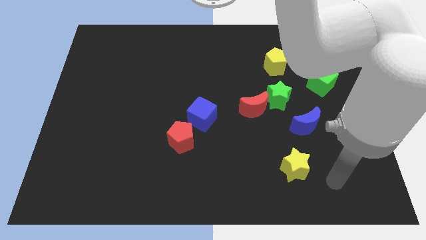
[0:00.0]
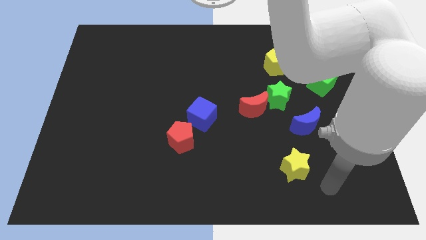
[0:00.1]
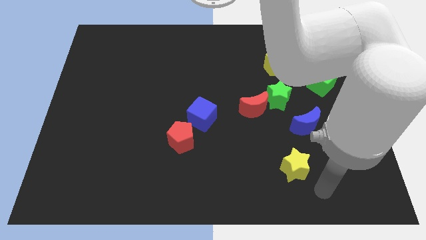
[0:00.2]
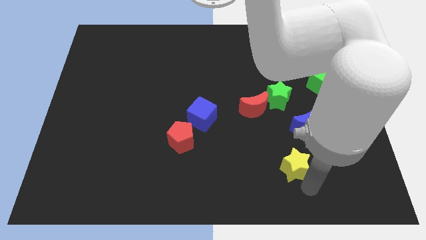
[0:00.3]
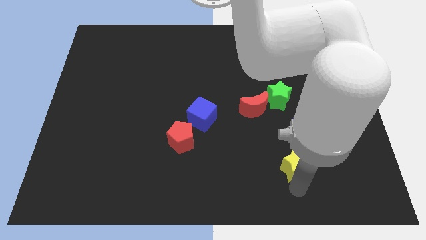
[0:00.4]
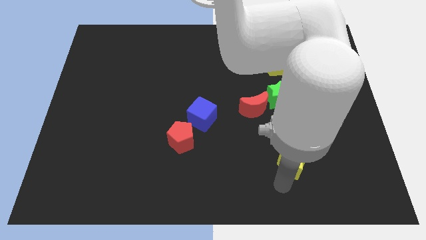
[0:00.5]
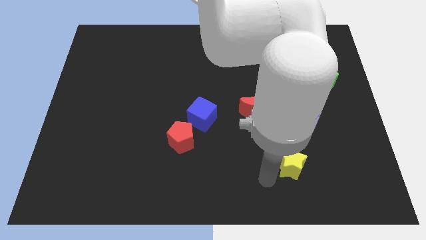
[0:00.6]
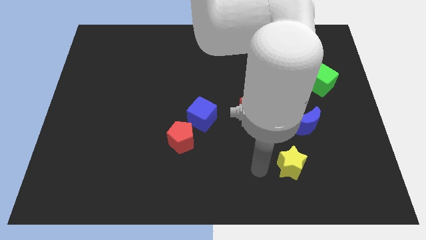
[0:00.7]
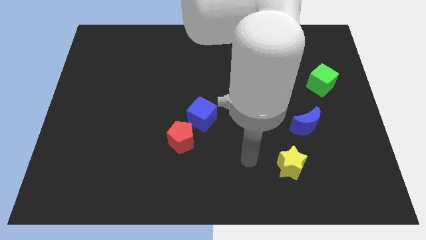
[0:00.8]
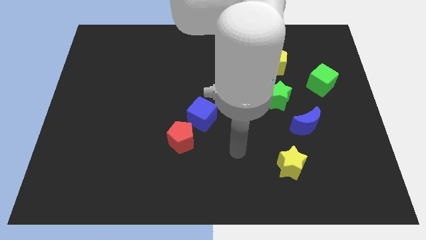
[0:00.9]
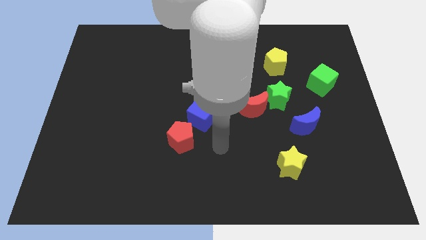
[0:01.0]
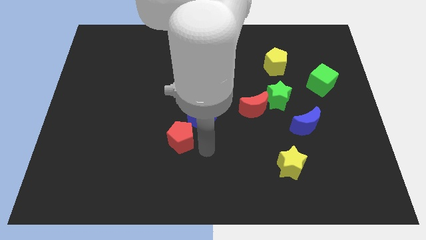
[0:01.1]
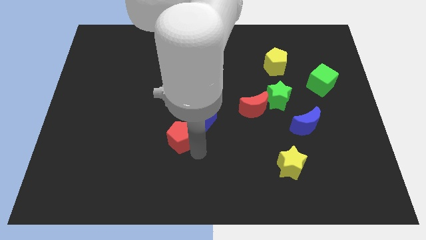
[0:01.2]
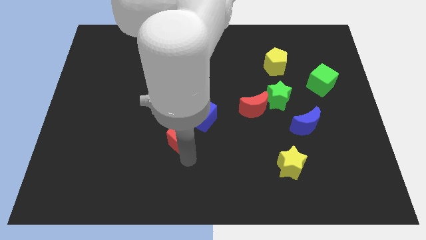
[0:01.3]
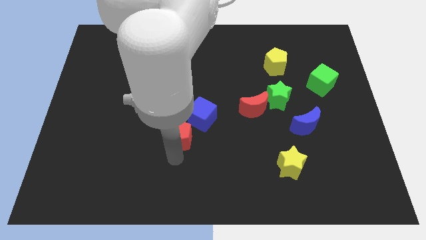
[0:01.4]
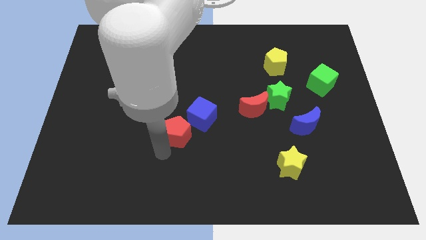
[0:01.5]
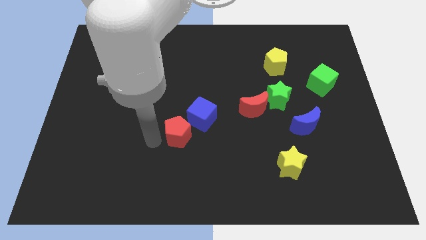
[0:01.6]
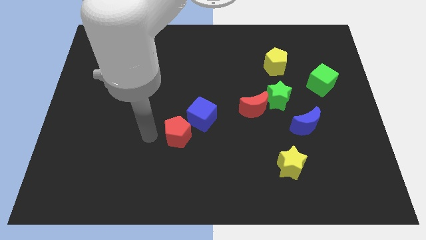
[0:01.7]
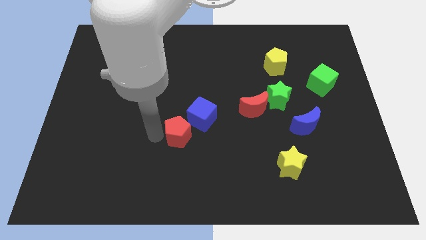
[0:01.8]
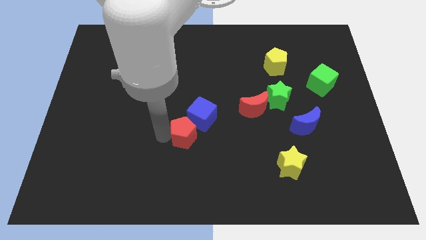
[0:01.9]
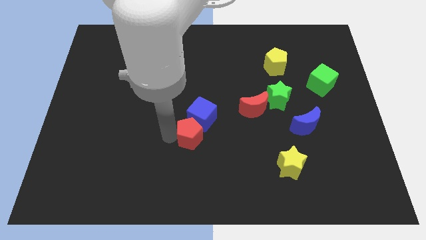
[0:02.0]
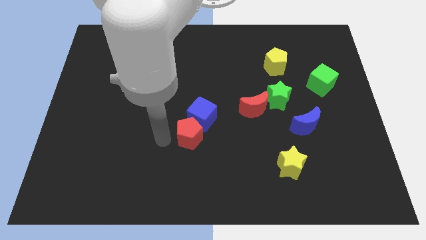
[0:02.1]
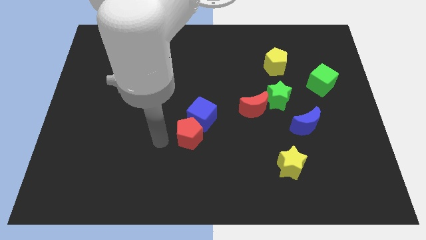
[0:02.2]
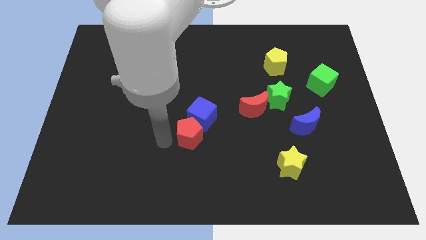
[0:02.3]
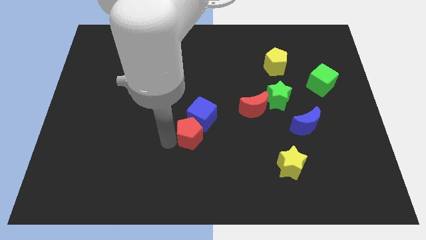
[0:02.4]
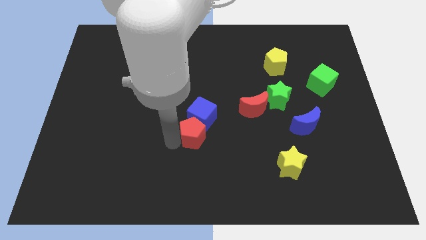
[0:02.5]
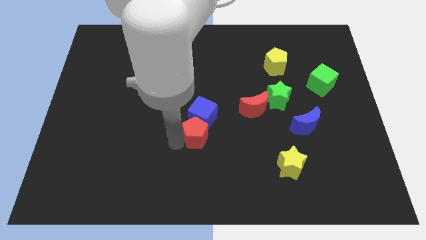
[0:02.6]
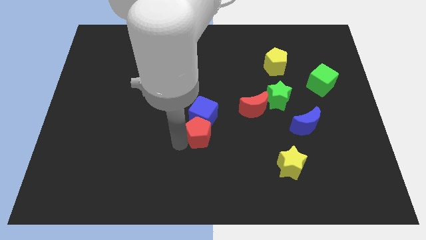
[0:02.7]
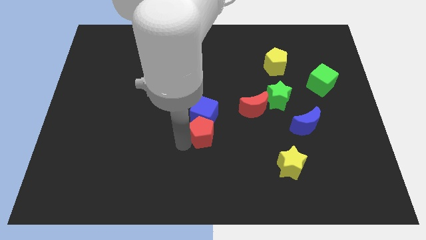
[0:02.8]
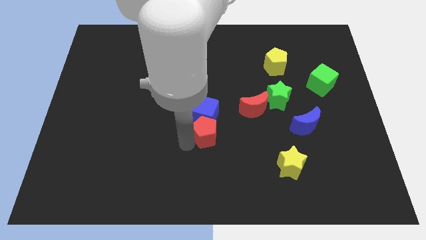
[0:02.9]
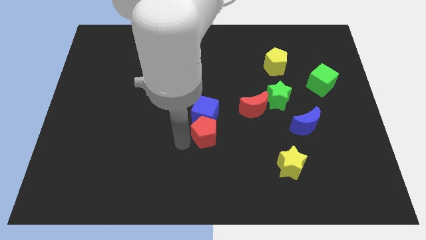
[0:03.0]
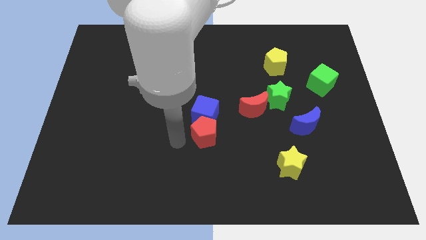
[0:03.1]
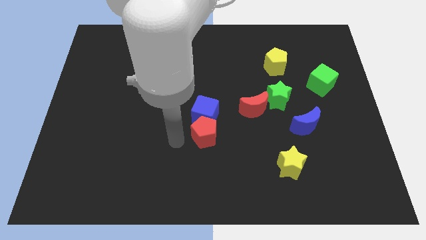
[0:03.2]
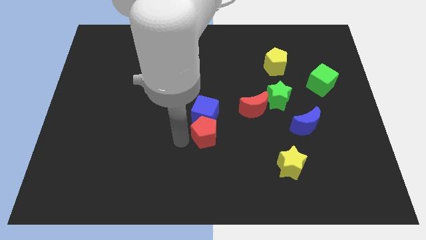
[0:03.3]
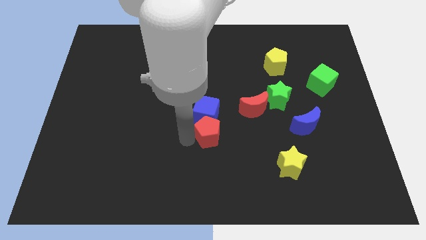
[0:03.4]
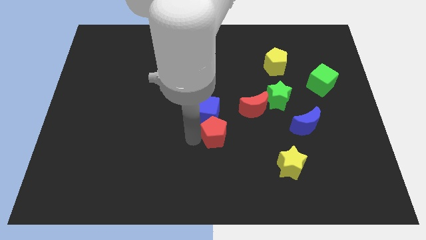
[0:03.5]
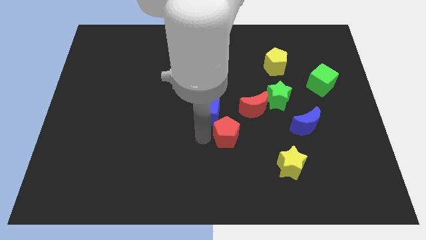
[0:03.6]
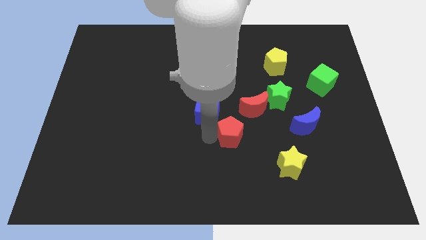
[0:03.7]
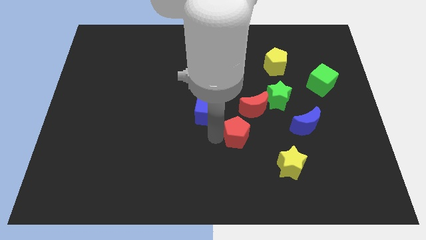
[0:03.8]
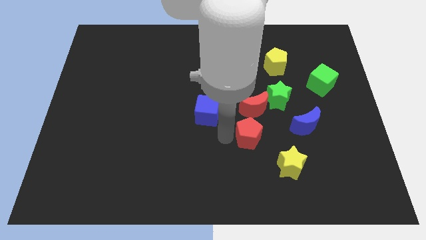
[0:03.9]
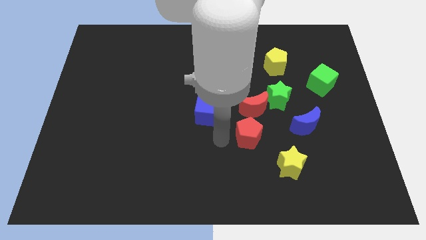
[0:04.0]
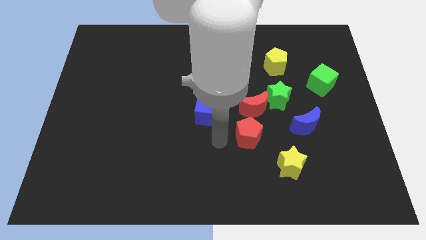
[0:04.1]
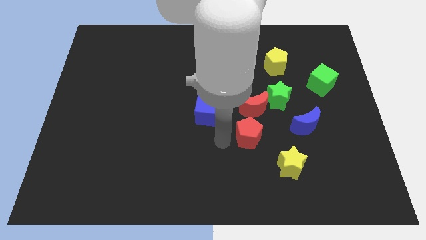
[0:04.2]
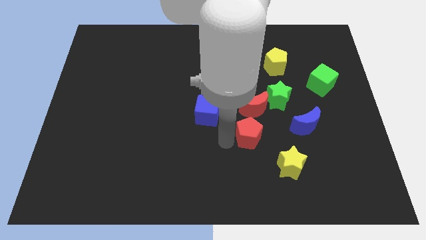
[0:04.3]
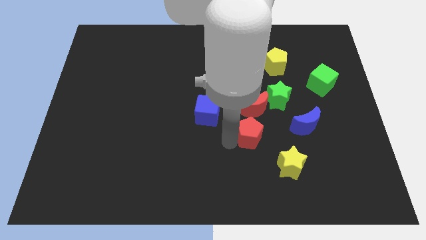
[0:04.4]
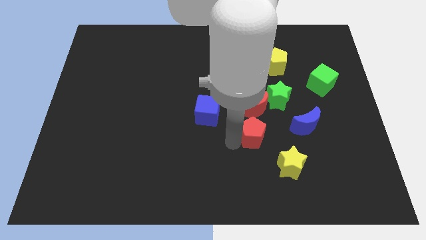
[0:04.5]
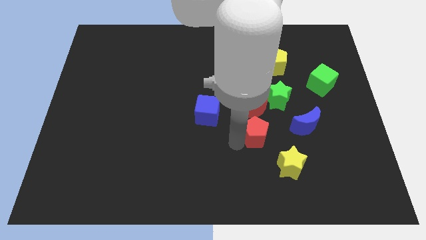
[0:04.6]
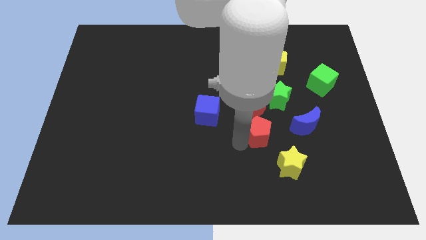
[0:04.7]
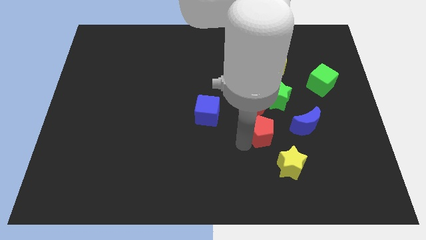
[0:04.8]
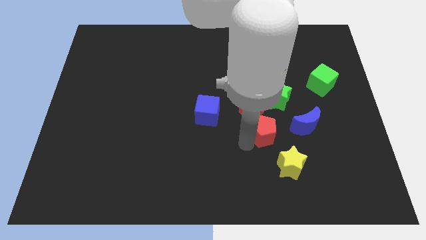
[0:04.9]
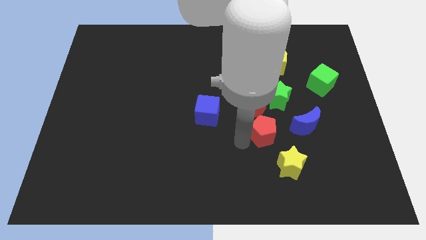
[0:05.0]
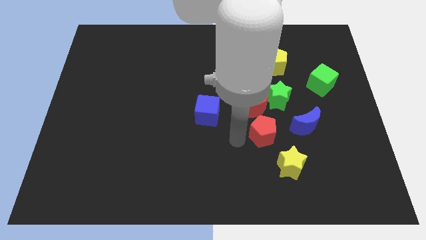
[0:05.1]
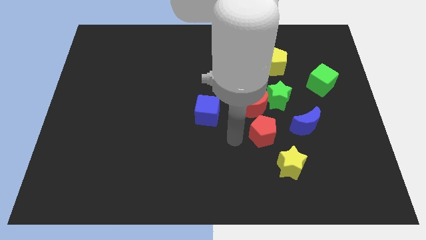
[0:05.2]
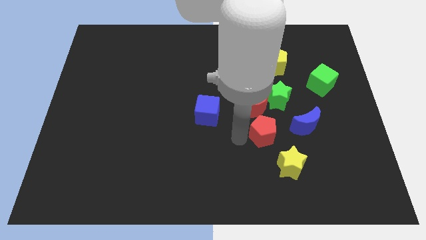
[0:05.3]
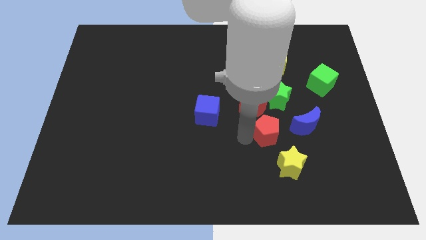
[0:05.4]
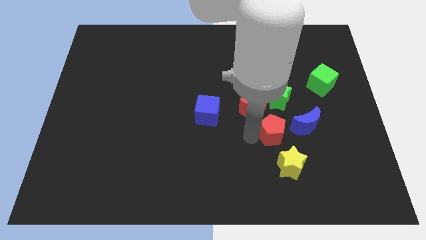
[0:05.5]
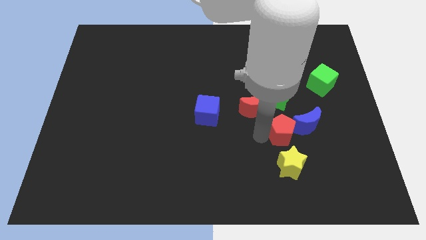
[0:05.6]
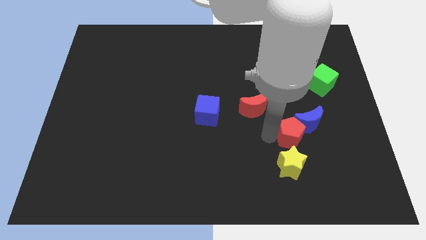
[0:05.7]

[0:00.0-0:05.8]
put the red pentagon next to the blue moon
